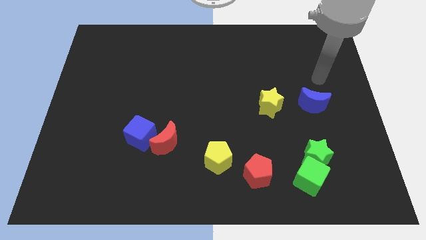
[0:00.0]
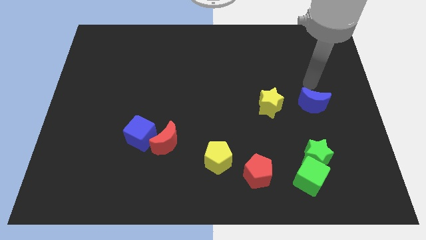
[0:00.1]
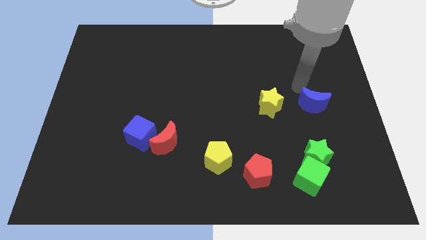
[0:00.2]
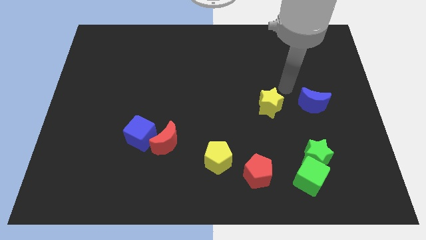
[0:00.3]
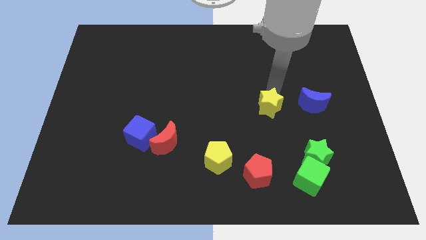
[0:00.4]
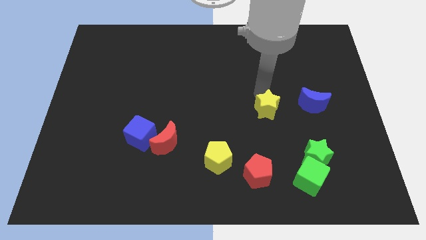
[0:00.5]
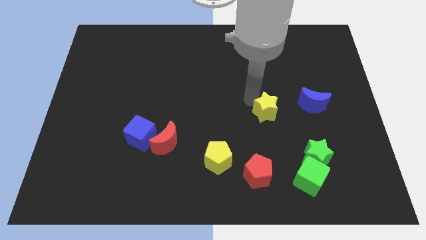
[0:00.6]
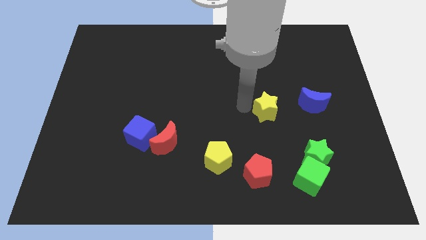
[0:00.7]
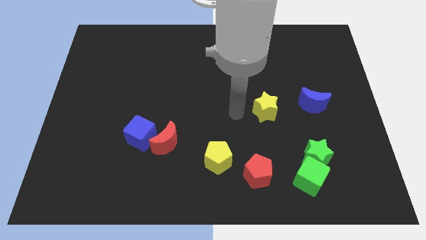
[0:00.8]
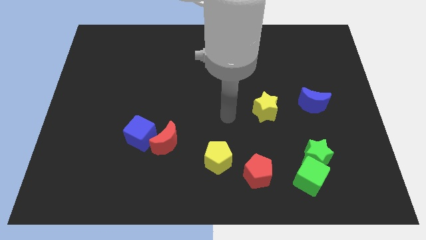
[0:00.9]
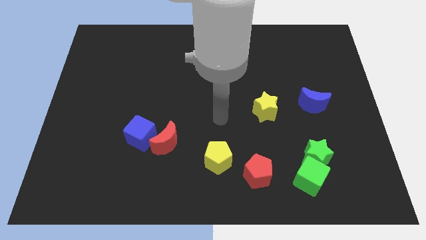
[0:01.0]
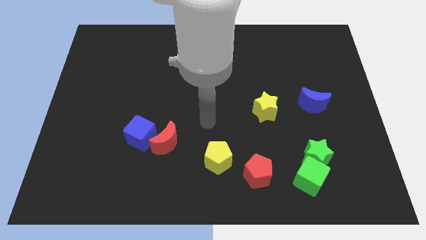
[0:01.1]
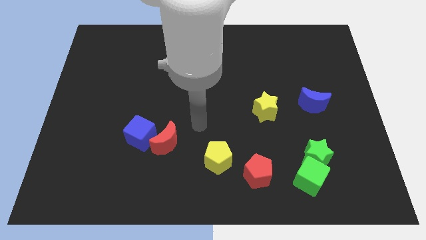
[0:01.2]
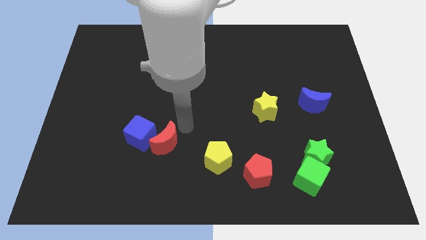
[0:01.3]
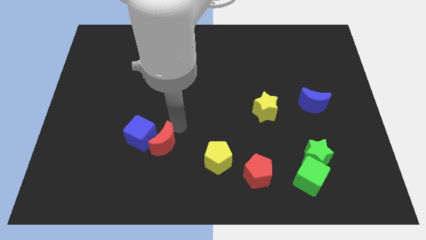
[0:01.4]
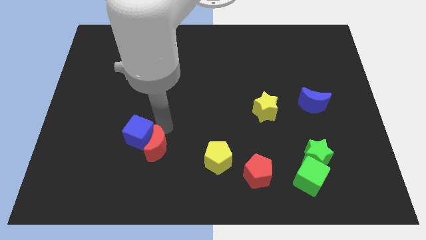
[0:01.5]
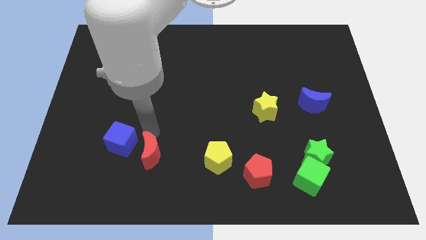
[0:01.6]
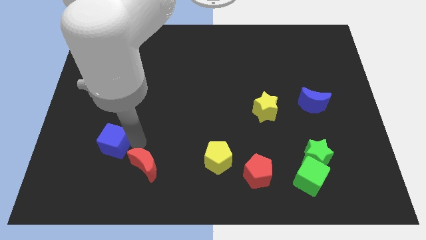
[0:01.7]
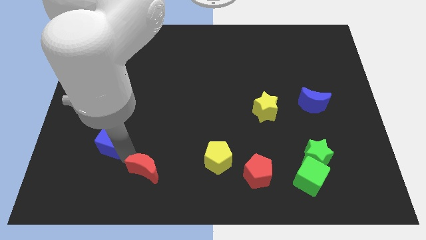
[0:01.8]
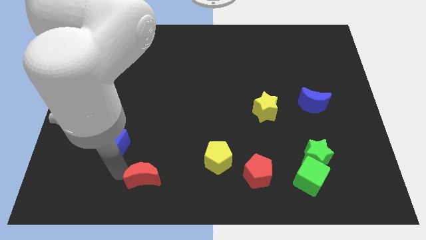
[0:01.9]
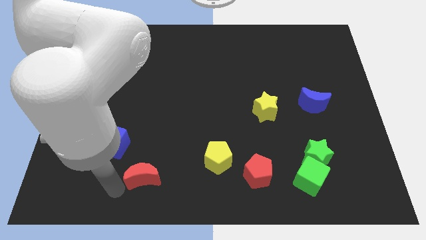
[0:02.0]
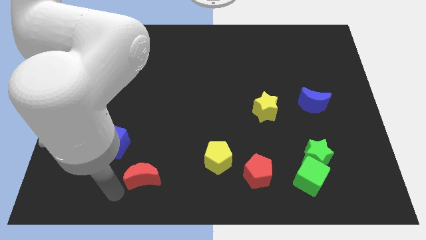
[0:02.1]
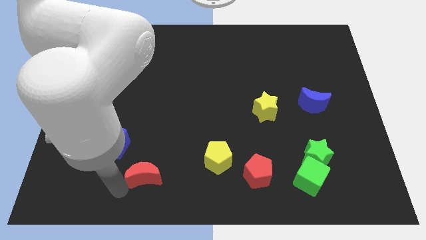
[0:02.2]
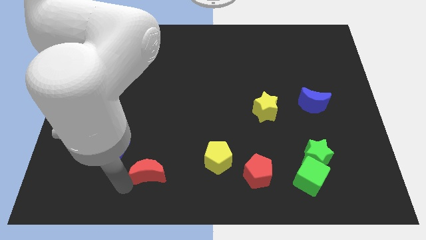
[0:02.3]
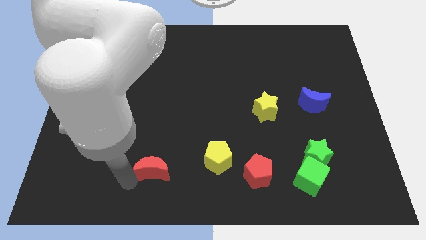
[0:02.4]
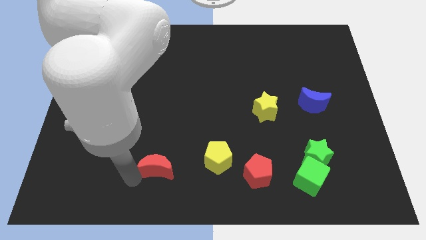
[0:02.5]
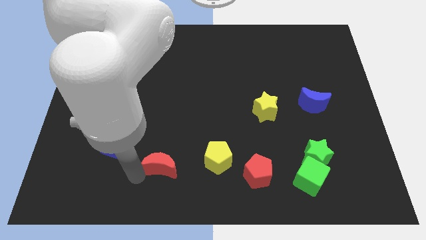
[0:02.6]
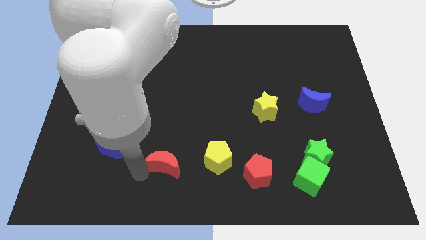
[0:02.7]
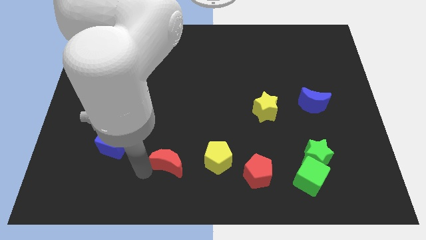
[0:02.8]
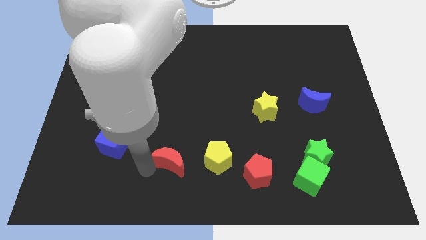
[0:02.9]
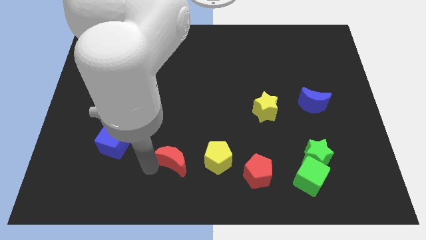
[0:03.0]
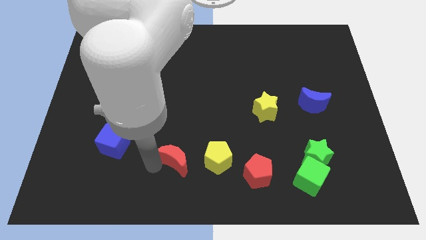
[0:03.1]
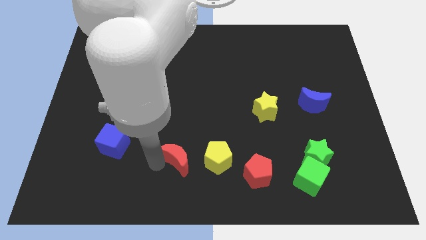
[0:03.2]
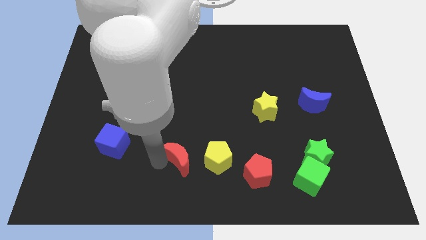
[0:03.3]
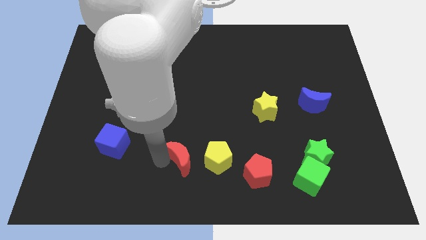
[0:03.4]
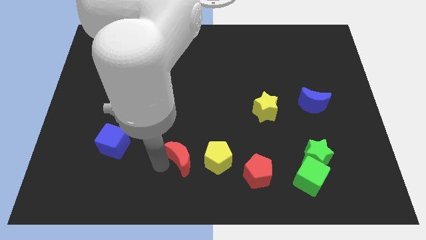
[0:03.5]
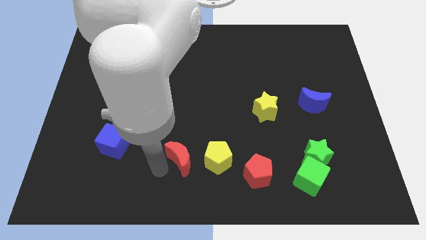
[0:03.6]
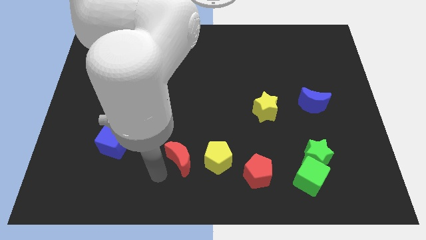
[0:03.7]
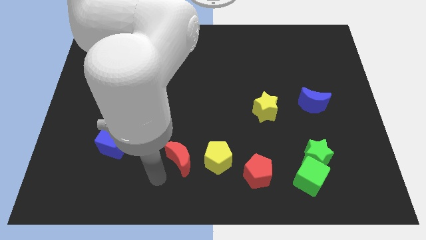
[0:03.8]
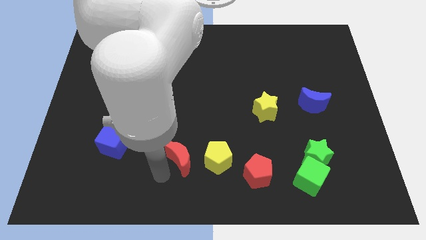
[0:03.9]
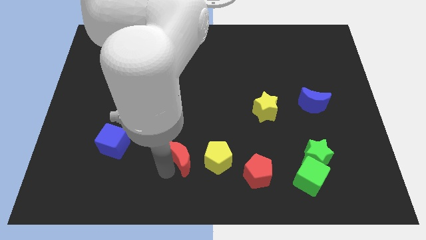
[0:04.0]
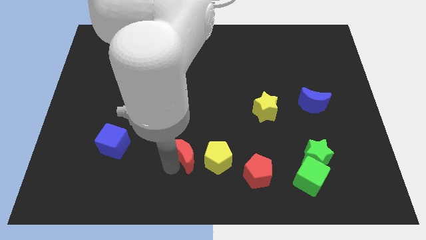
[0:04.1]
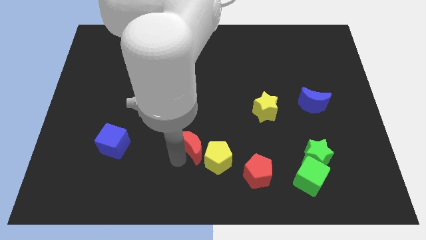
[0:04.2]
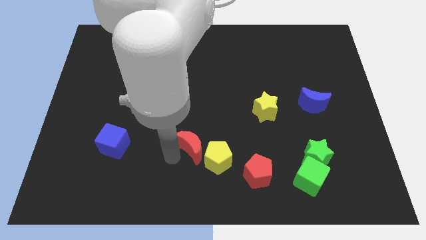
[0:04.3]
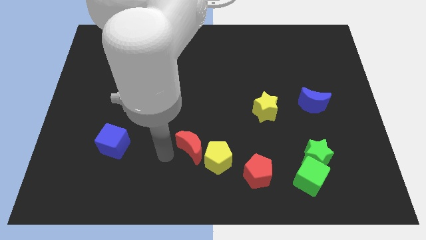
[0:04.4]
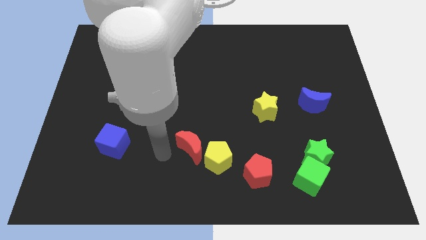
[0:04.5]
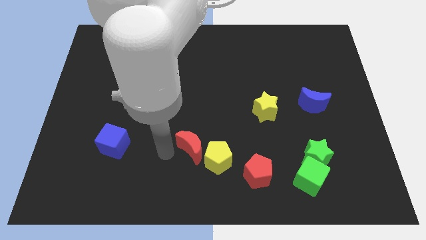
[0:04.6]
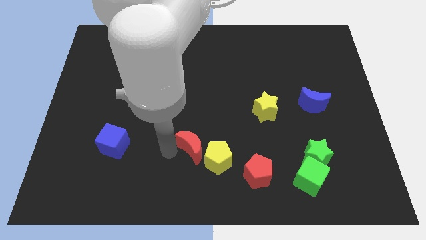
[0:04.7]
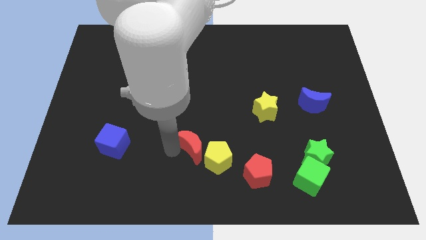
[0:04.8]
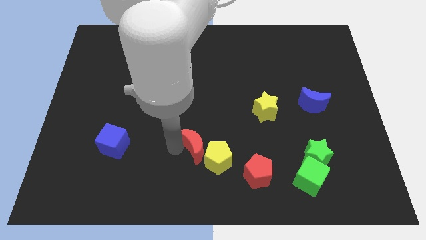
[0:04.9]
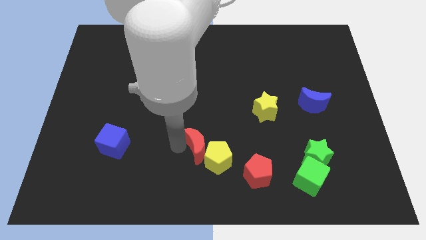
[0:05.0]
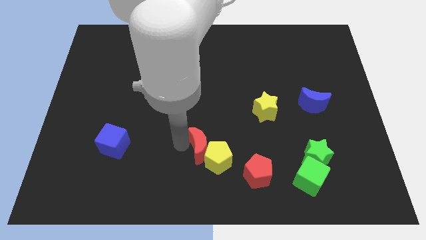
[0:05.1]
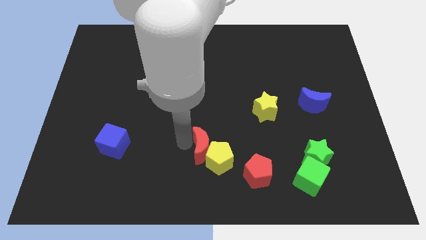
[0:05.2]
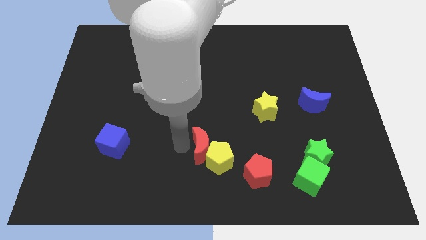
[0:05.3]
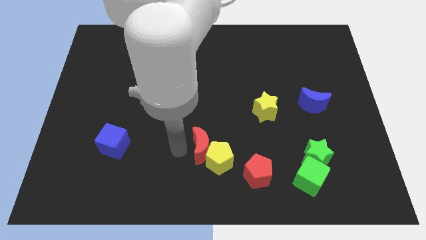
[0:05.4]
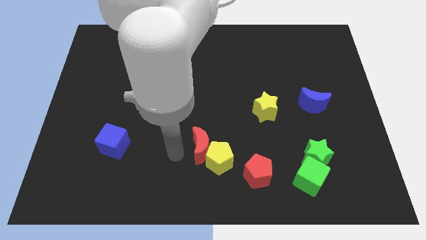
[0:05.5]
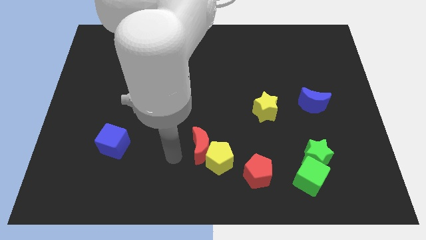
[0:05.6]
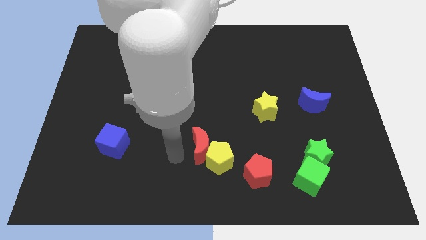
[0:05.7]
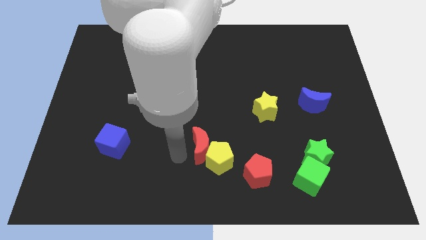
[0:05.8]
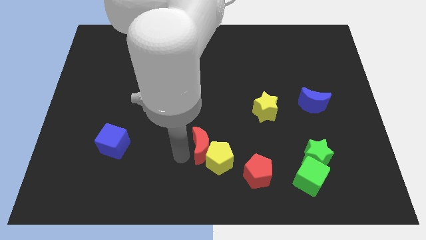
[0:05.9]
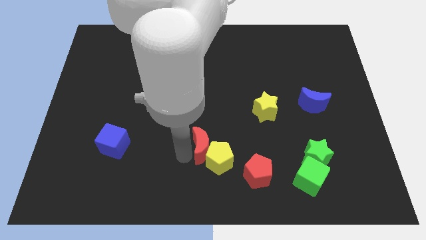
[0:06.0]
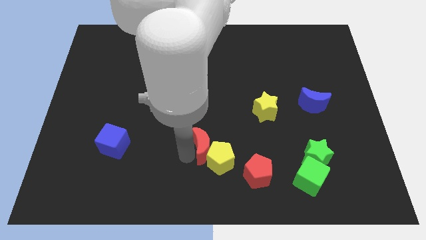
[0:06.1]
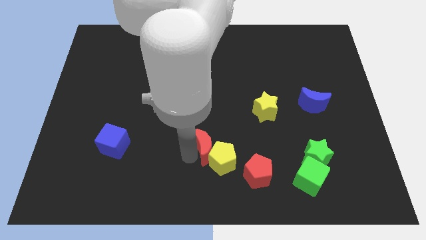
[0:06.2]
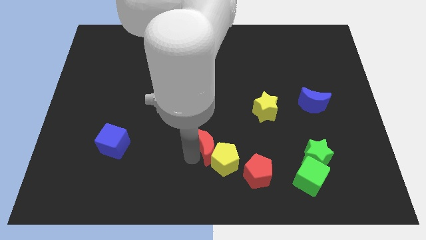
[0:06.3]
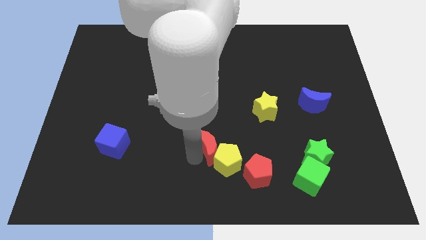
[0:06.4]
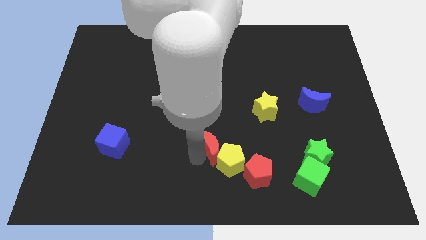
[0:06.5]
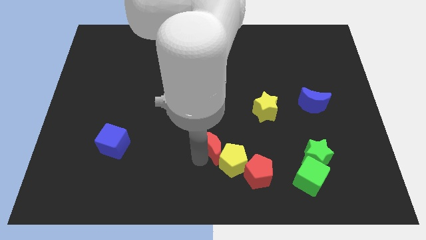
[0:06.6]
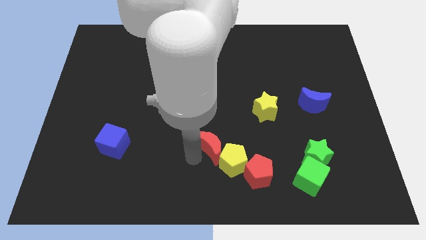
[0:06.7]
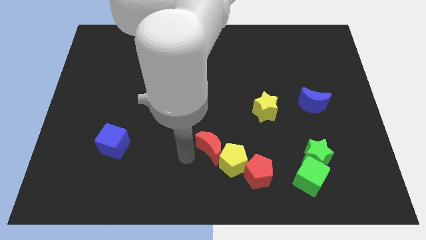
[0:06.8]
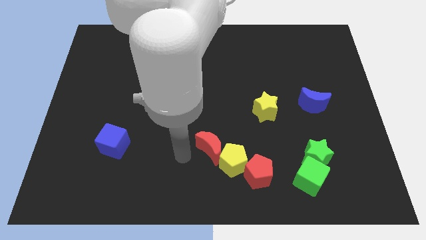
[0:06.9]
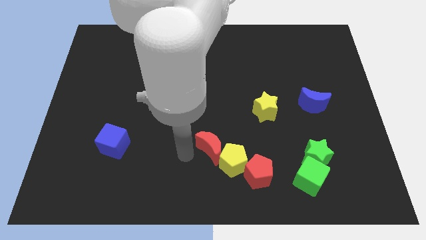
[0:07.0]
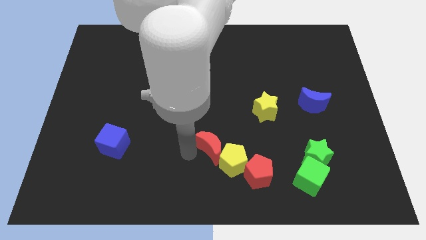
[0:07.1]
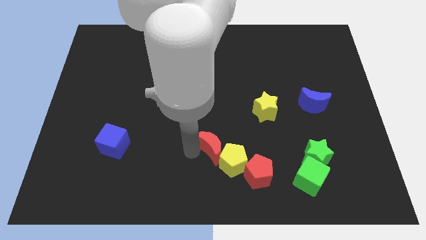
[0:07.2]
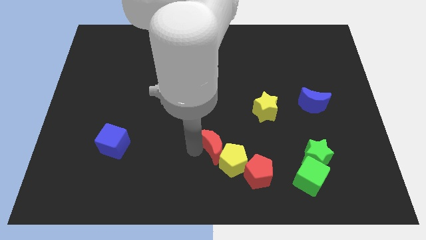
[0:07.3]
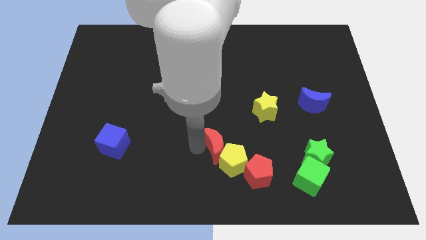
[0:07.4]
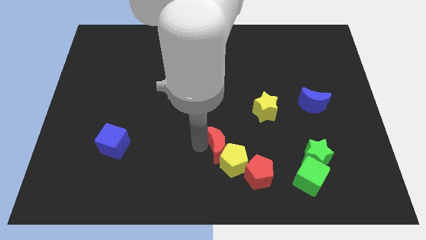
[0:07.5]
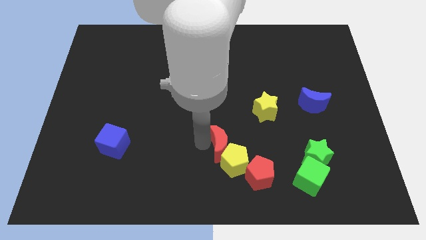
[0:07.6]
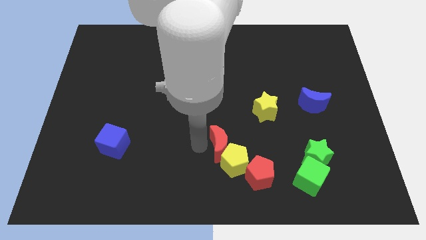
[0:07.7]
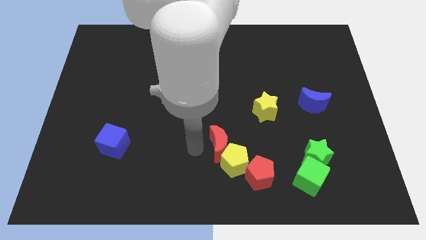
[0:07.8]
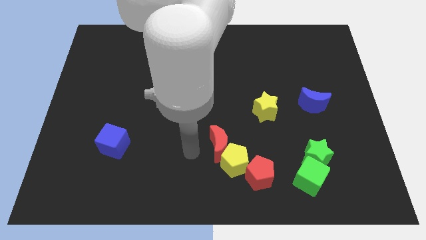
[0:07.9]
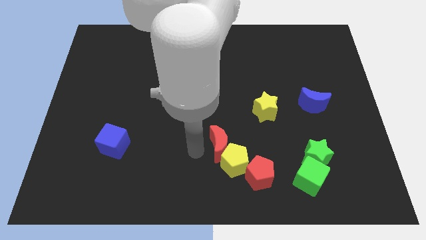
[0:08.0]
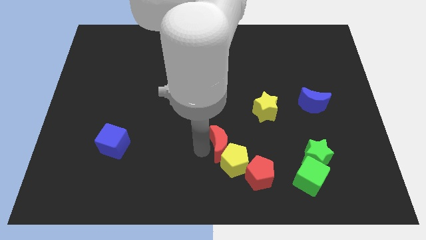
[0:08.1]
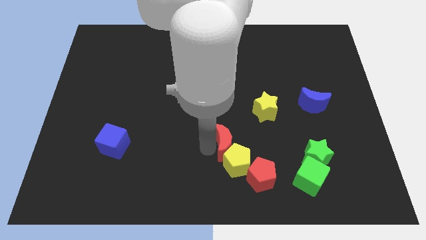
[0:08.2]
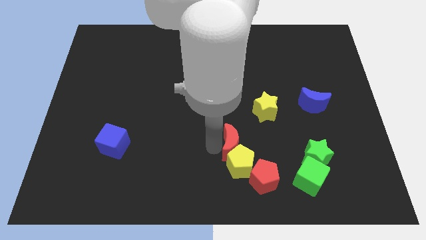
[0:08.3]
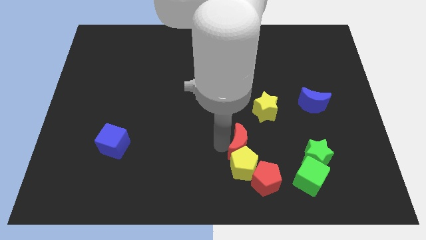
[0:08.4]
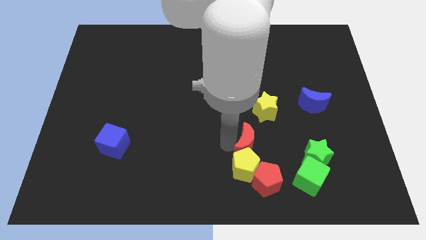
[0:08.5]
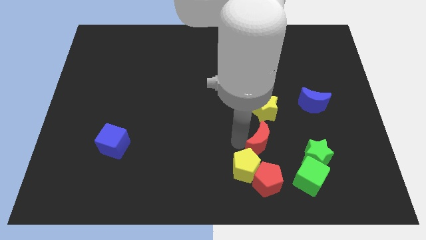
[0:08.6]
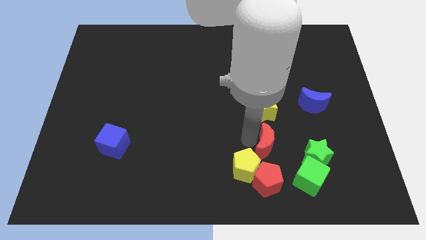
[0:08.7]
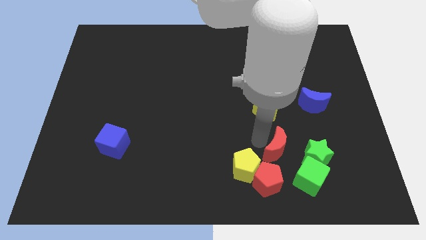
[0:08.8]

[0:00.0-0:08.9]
put the red moon to the right side of the yellow pentagon
